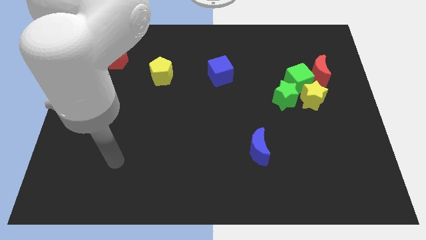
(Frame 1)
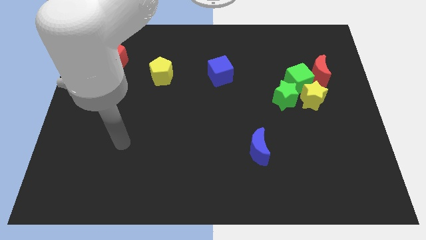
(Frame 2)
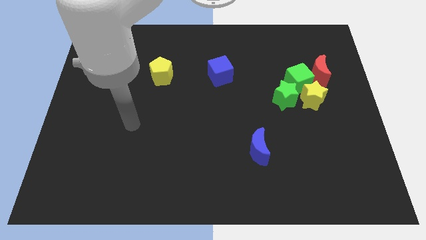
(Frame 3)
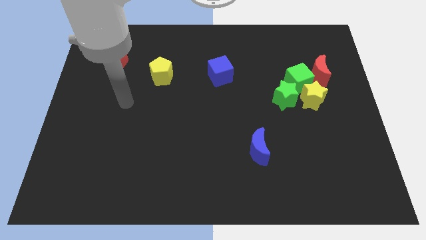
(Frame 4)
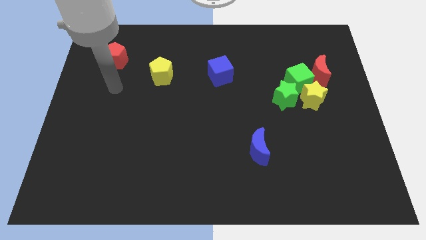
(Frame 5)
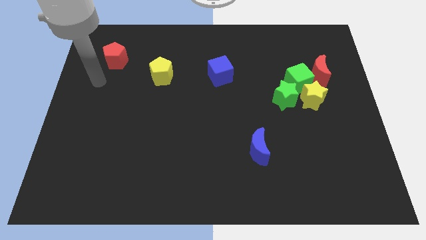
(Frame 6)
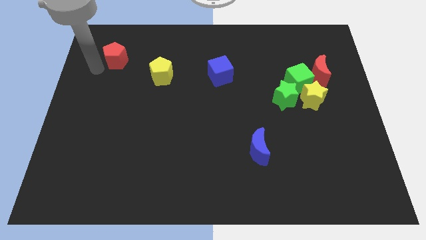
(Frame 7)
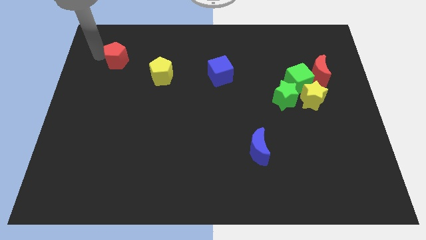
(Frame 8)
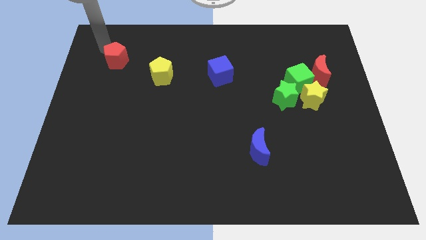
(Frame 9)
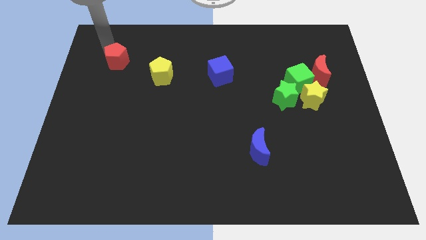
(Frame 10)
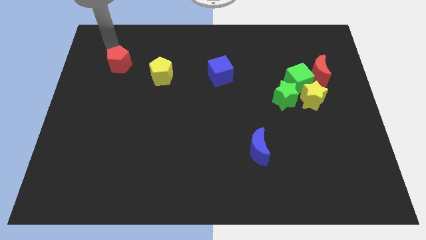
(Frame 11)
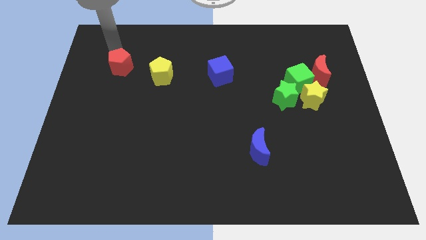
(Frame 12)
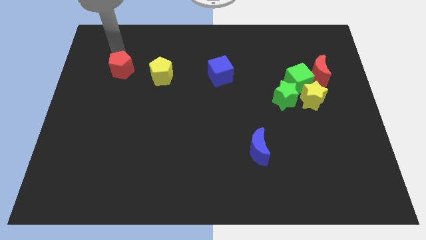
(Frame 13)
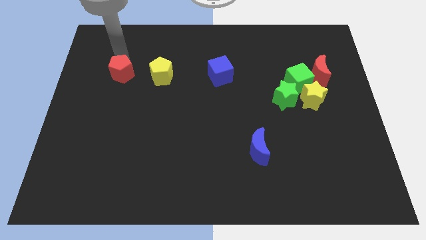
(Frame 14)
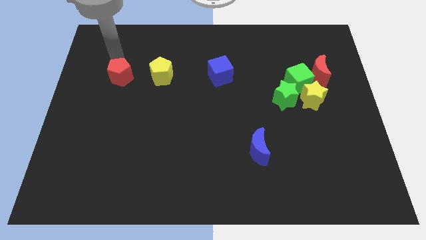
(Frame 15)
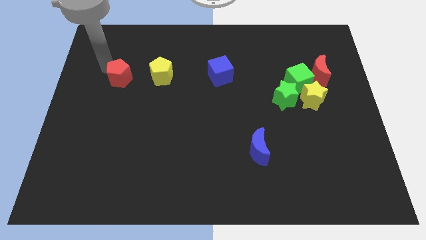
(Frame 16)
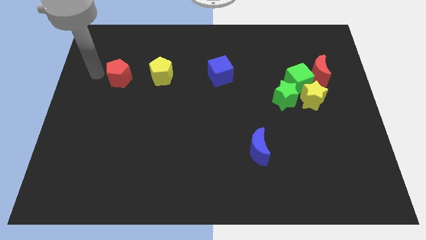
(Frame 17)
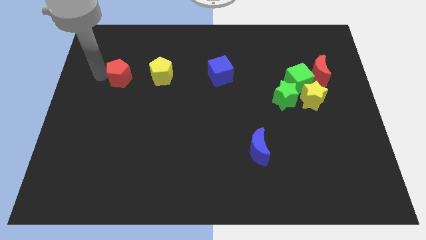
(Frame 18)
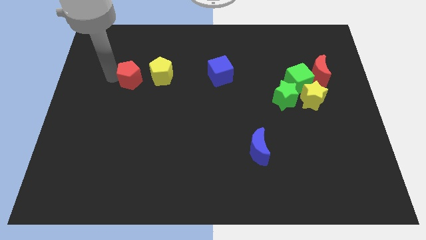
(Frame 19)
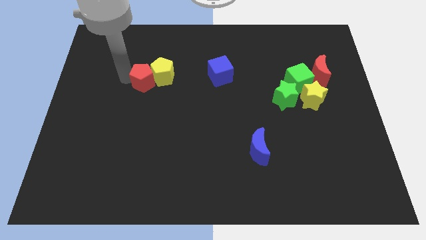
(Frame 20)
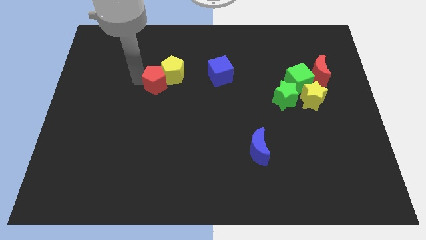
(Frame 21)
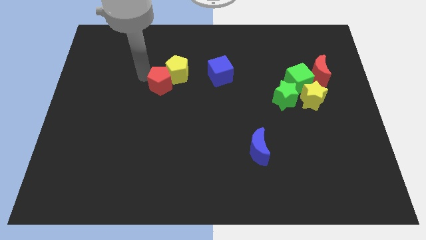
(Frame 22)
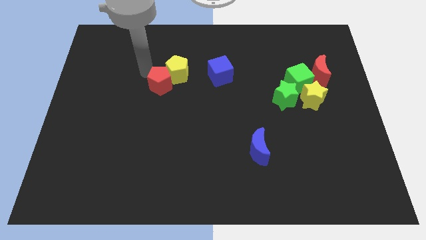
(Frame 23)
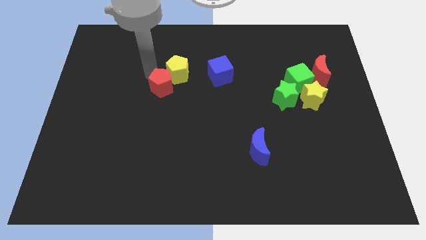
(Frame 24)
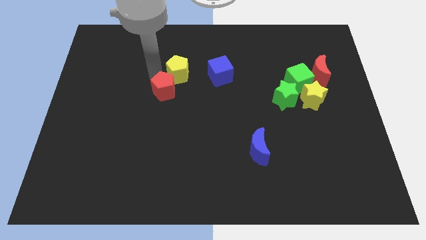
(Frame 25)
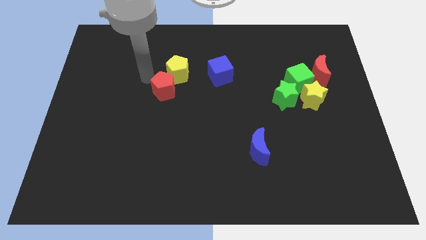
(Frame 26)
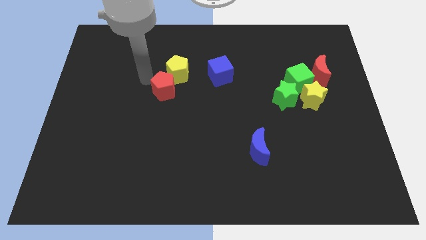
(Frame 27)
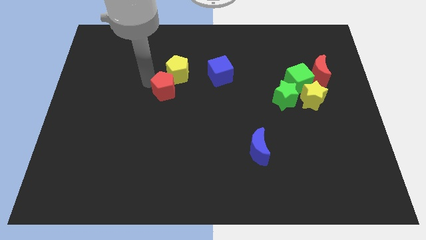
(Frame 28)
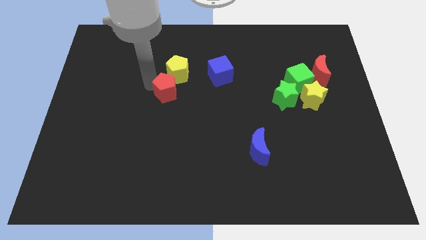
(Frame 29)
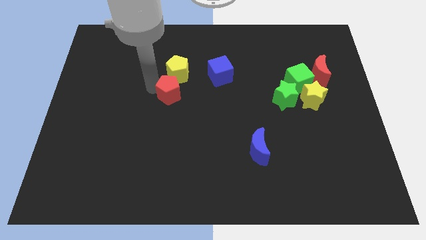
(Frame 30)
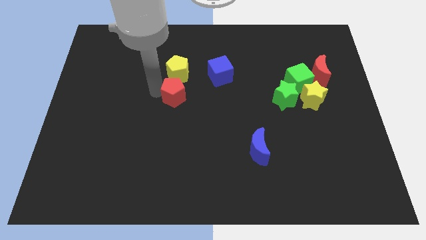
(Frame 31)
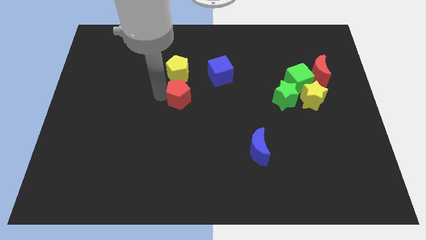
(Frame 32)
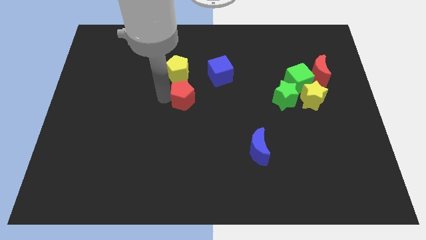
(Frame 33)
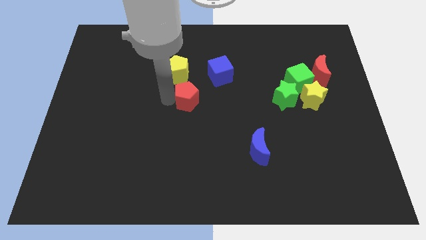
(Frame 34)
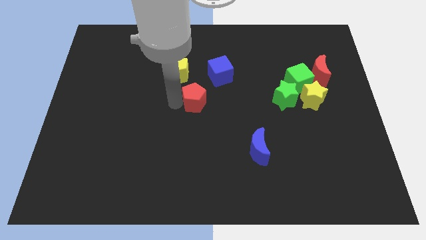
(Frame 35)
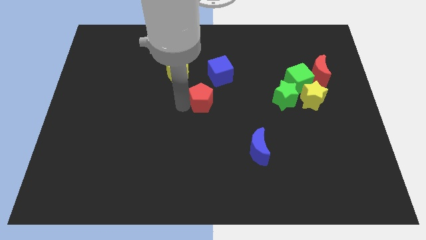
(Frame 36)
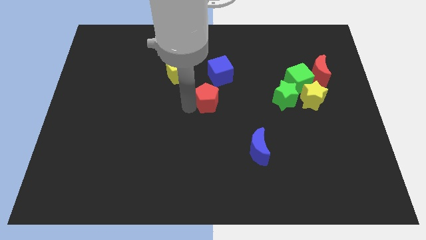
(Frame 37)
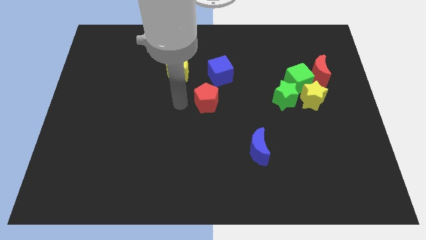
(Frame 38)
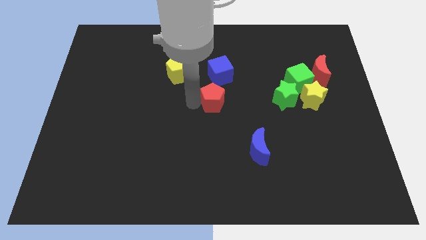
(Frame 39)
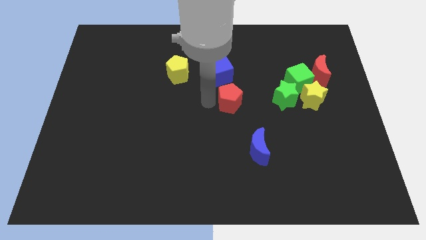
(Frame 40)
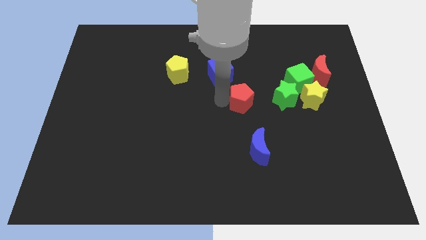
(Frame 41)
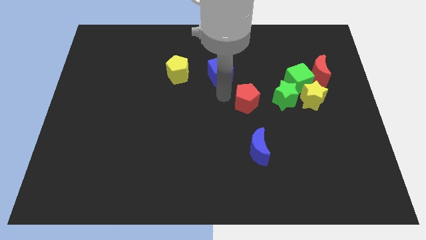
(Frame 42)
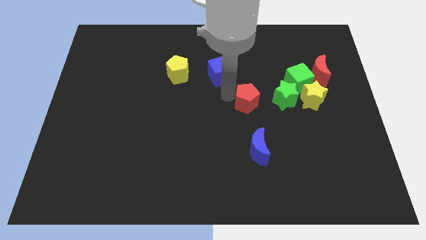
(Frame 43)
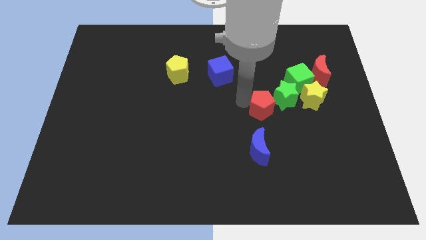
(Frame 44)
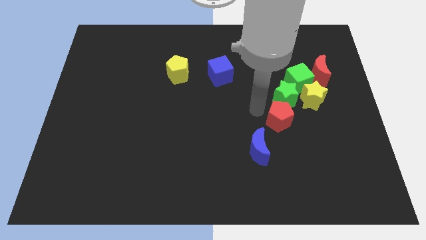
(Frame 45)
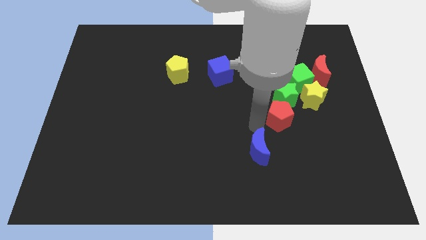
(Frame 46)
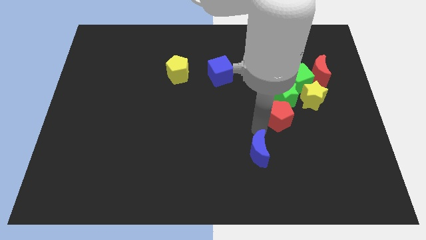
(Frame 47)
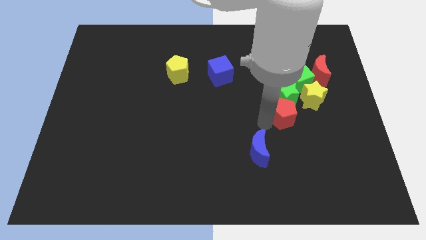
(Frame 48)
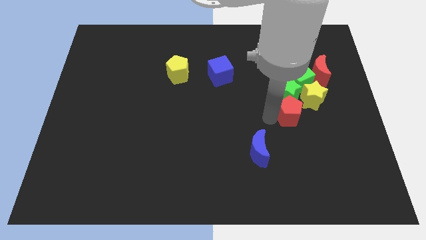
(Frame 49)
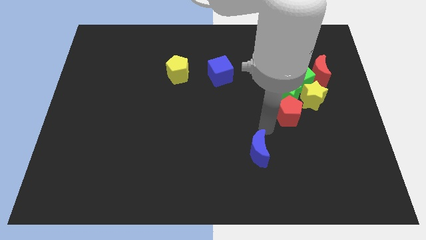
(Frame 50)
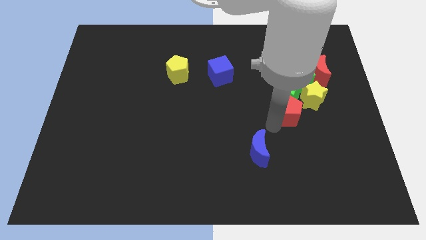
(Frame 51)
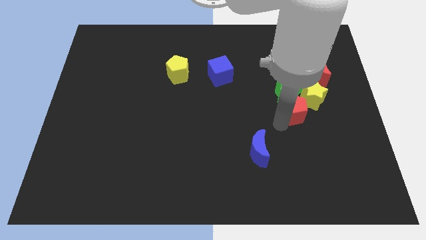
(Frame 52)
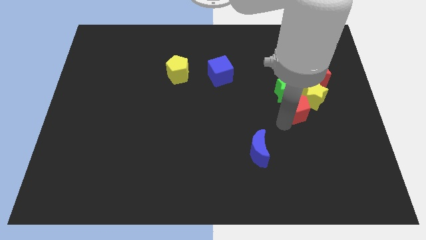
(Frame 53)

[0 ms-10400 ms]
slide the red pentagon next to the yellow star

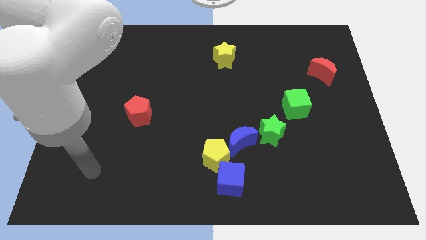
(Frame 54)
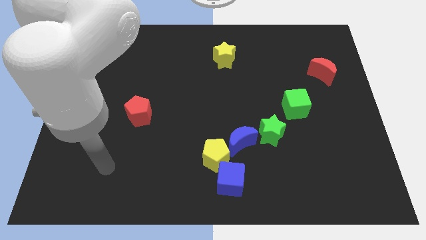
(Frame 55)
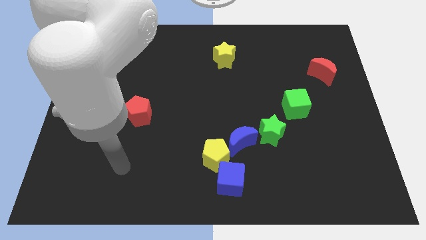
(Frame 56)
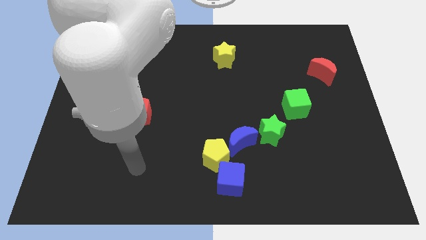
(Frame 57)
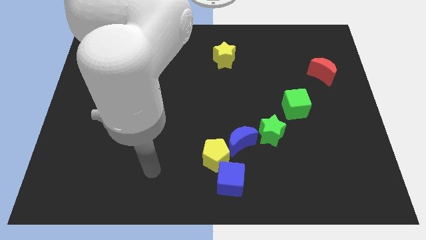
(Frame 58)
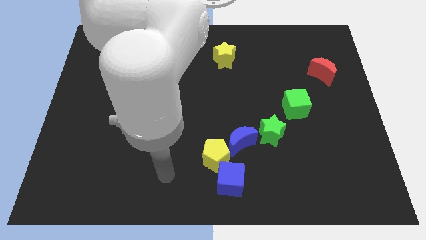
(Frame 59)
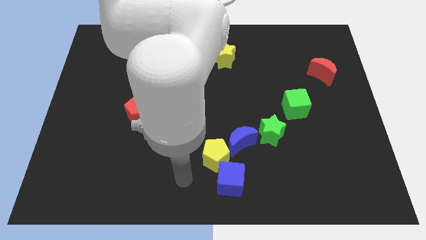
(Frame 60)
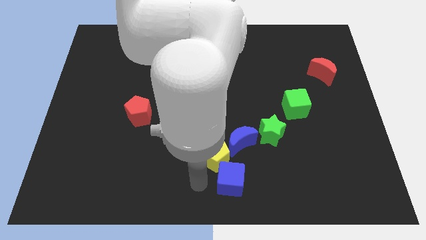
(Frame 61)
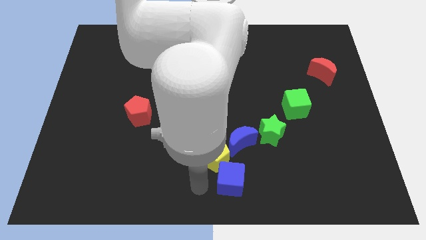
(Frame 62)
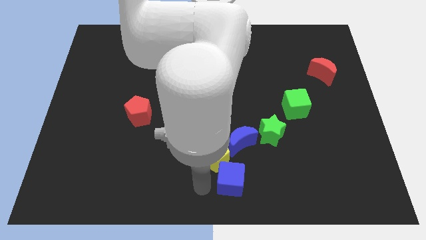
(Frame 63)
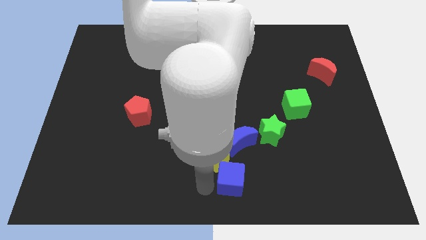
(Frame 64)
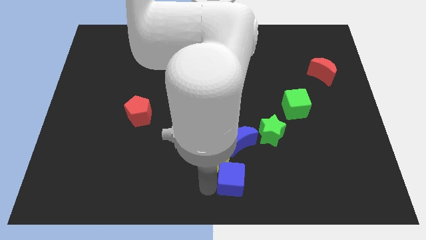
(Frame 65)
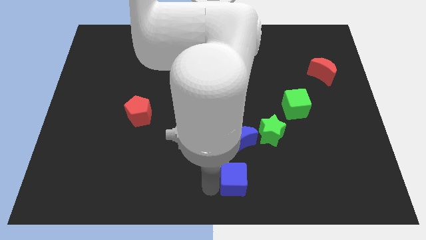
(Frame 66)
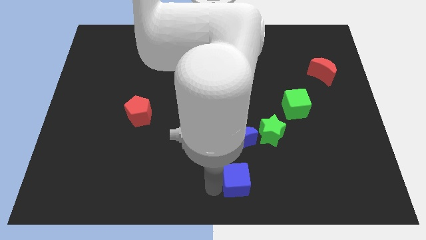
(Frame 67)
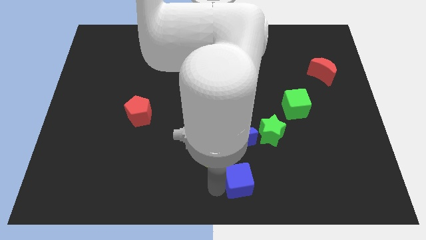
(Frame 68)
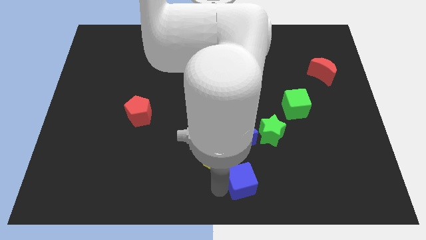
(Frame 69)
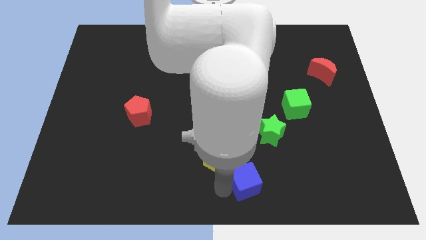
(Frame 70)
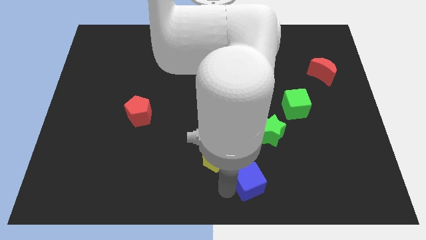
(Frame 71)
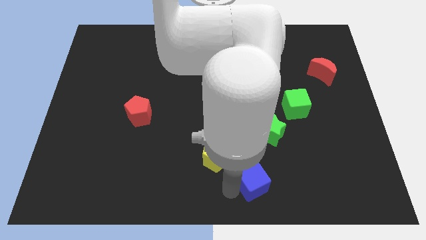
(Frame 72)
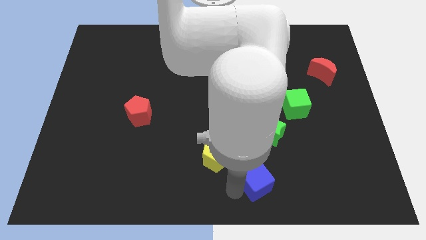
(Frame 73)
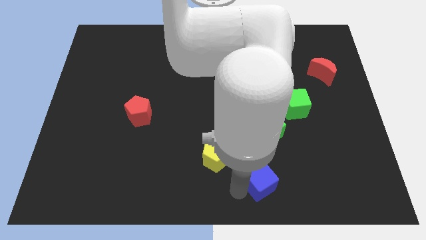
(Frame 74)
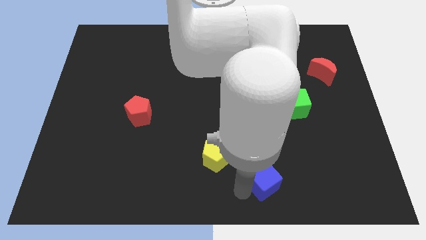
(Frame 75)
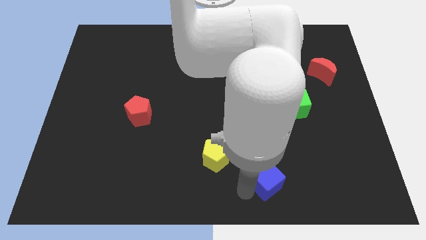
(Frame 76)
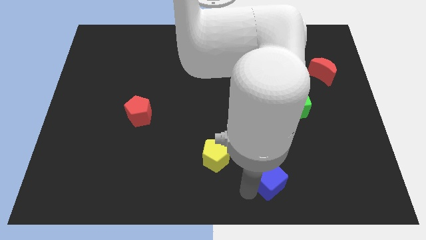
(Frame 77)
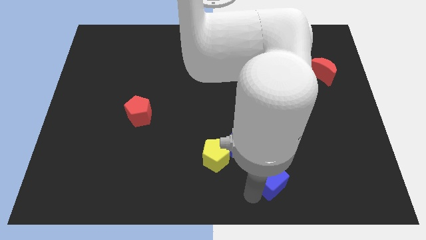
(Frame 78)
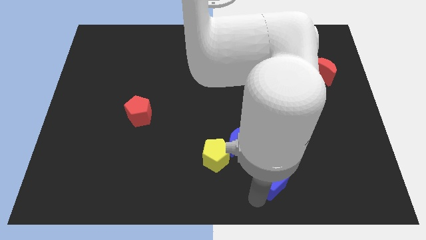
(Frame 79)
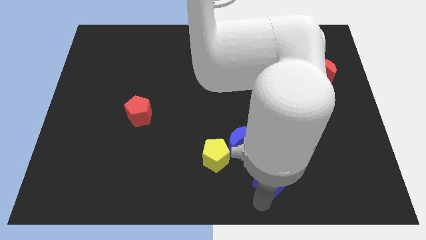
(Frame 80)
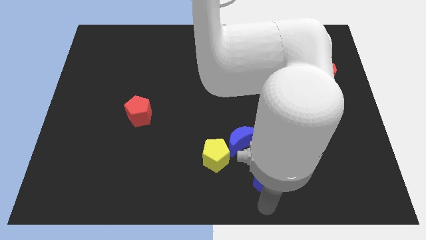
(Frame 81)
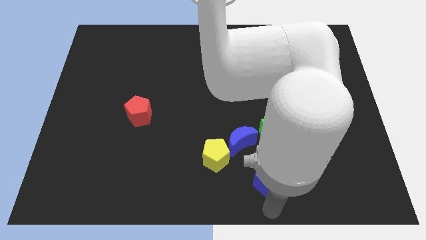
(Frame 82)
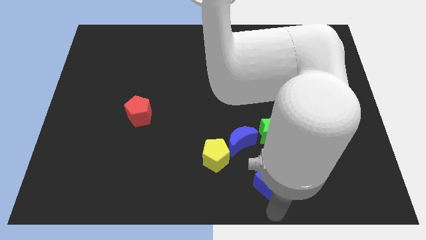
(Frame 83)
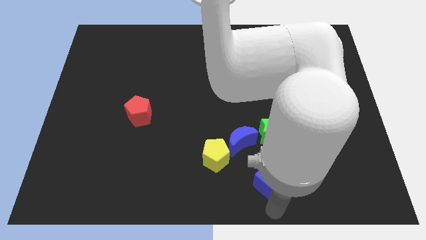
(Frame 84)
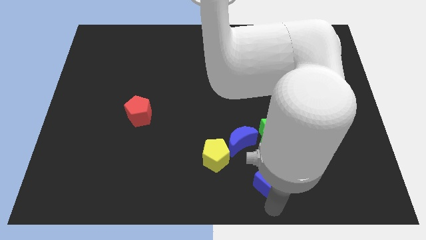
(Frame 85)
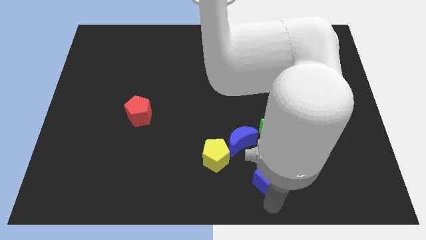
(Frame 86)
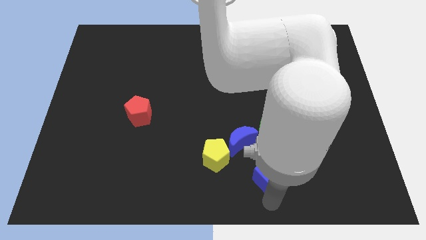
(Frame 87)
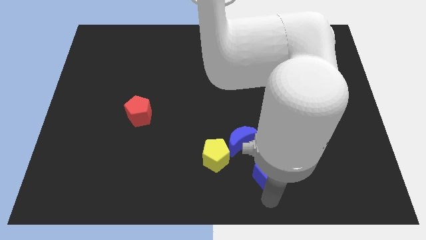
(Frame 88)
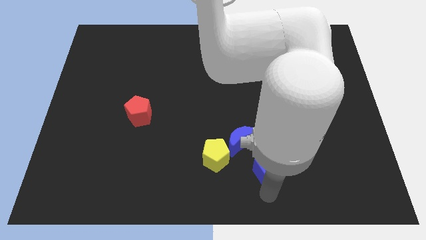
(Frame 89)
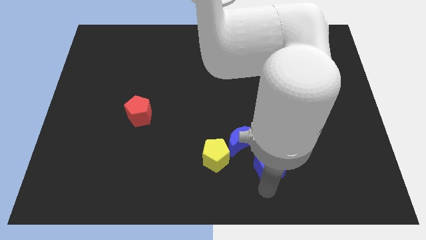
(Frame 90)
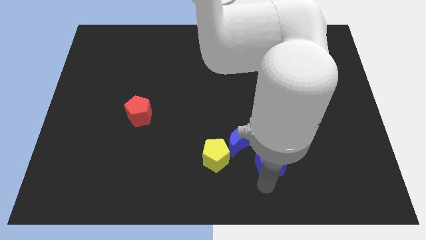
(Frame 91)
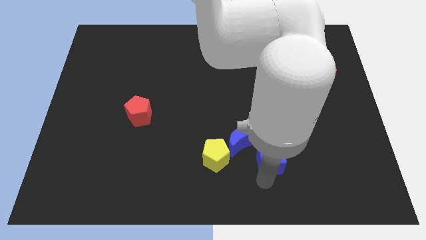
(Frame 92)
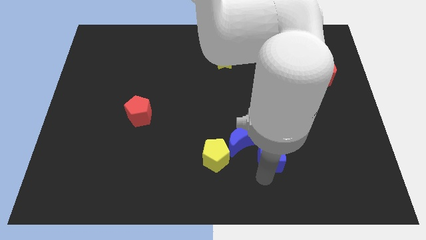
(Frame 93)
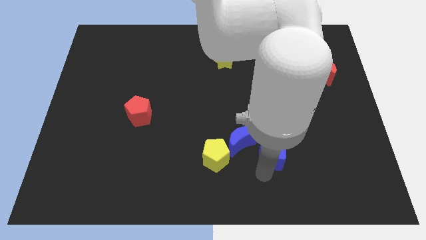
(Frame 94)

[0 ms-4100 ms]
push the blue cube towards the green star
